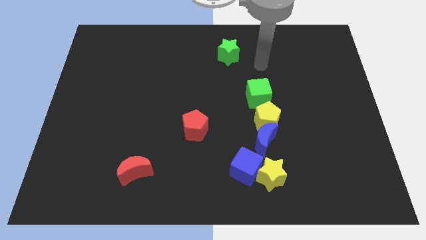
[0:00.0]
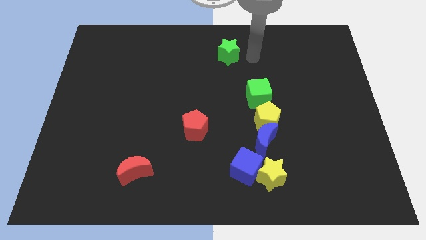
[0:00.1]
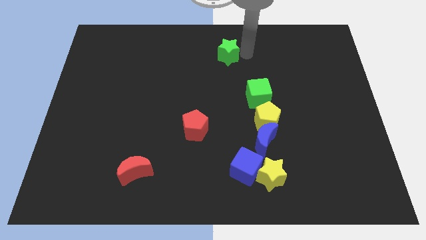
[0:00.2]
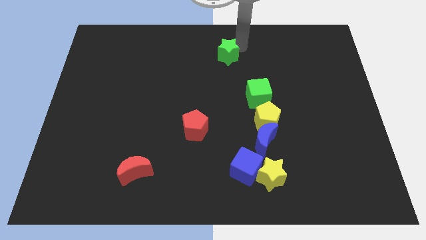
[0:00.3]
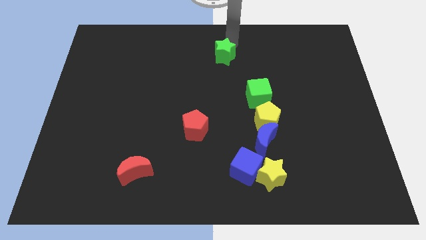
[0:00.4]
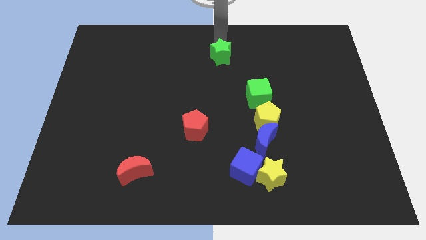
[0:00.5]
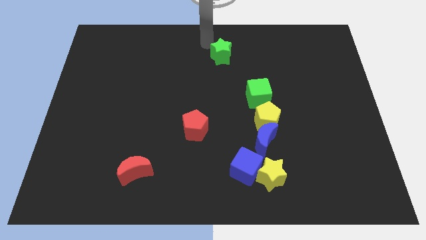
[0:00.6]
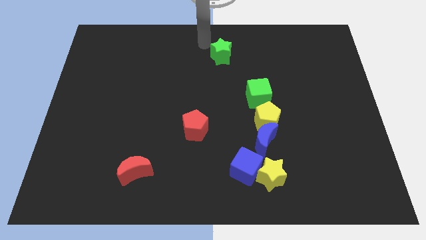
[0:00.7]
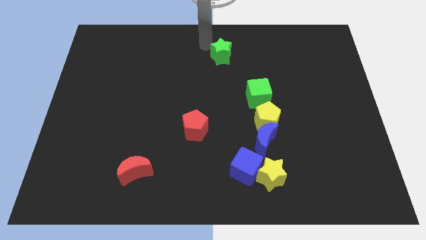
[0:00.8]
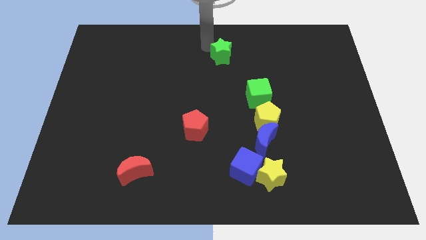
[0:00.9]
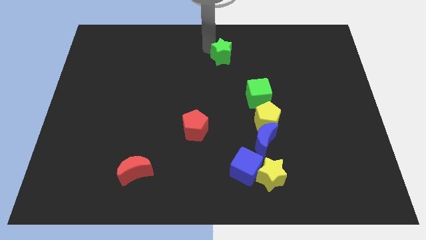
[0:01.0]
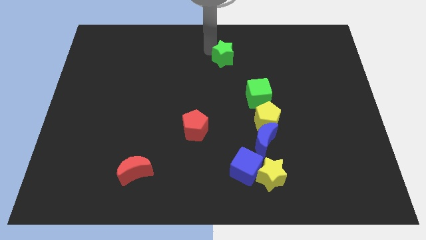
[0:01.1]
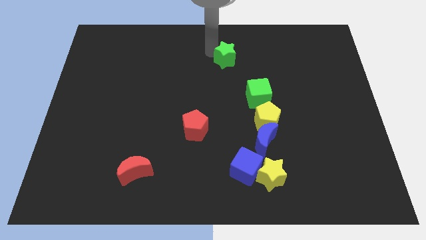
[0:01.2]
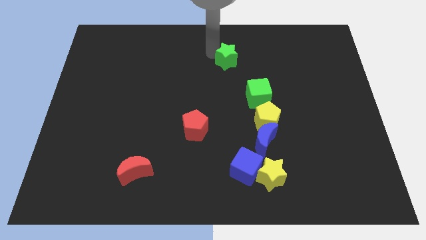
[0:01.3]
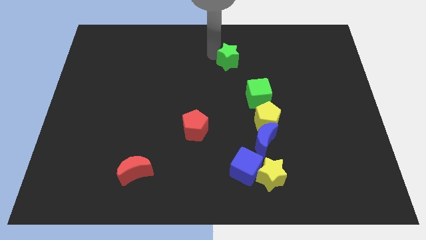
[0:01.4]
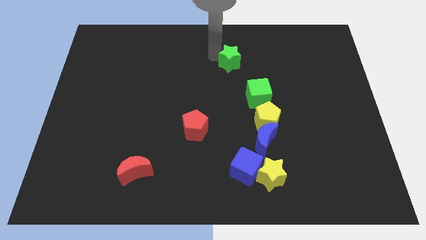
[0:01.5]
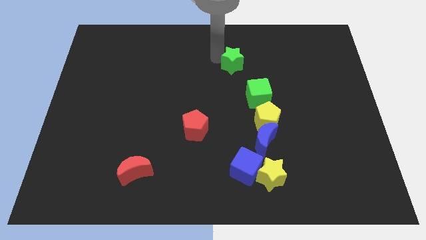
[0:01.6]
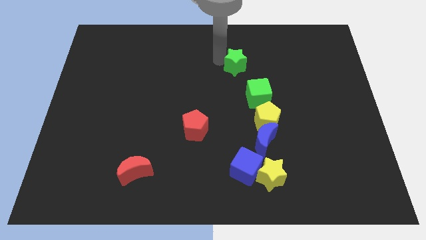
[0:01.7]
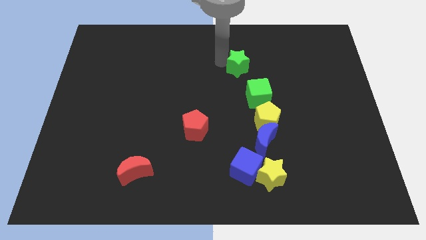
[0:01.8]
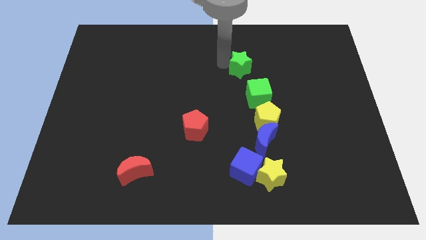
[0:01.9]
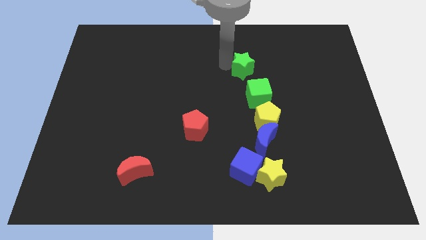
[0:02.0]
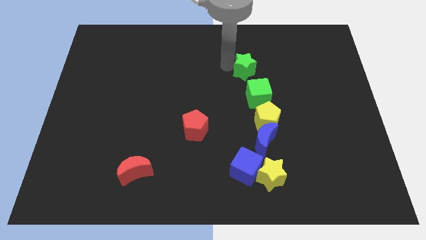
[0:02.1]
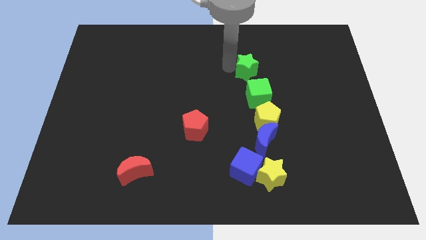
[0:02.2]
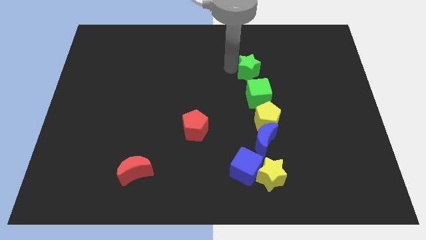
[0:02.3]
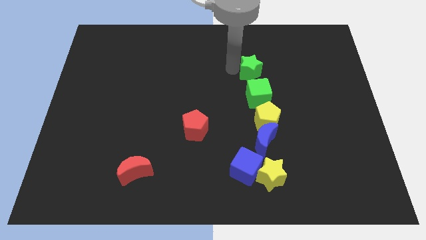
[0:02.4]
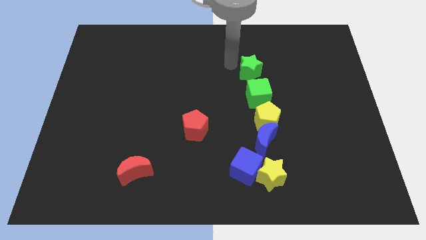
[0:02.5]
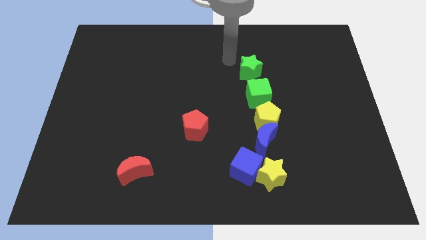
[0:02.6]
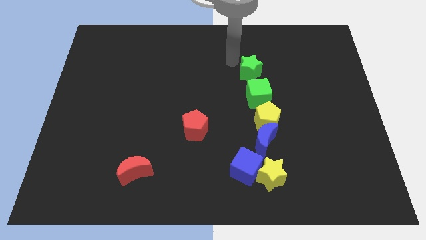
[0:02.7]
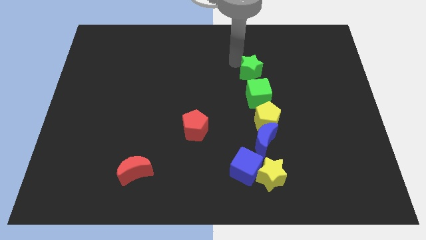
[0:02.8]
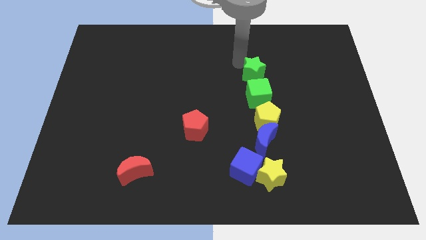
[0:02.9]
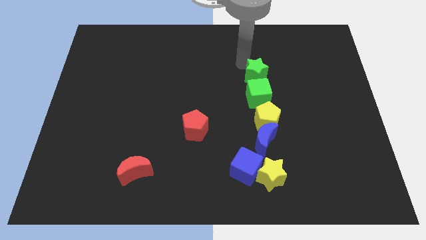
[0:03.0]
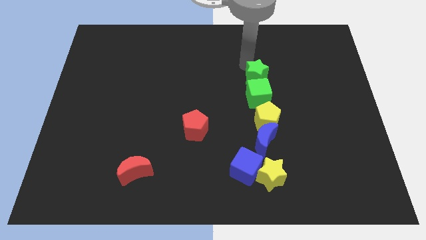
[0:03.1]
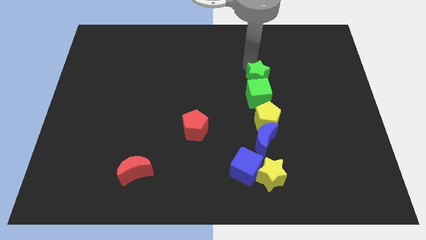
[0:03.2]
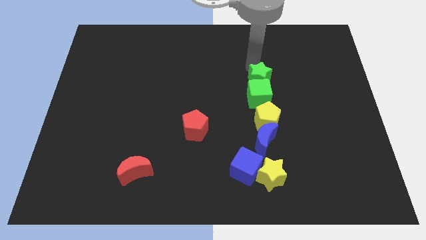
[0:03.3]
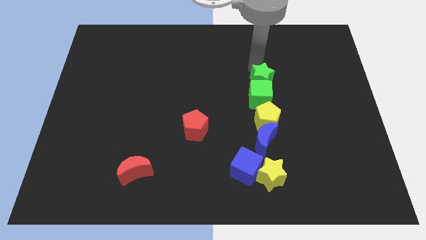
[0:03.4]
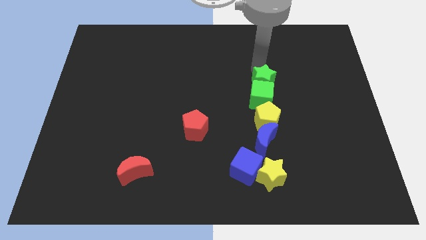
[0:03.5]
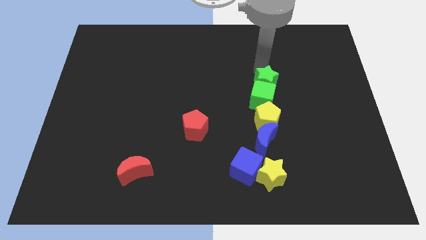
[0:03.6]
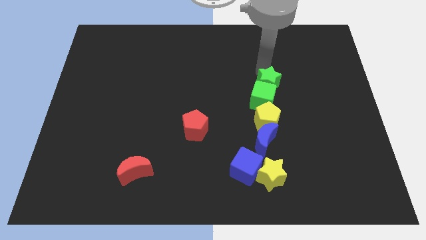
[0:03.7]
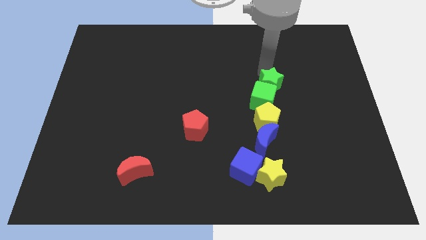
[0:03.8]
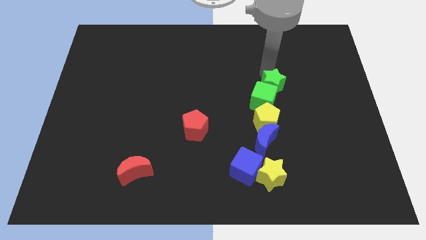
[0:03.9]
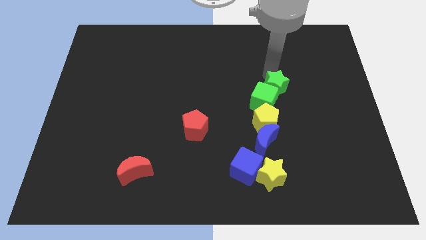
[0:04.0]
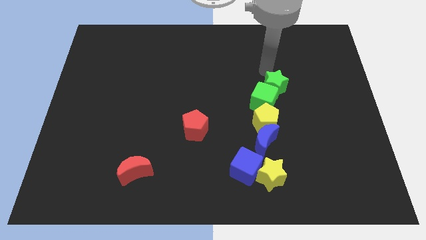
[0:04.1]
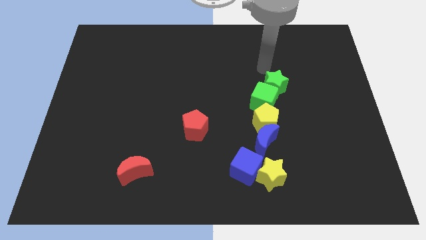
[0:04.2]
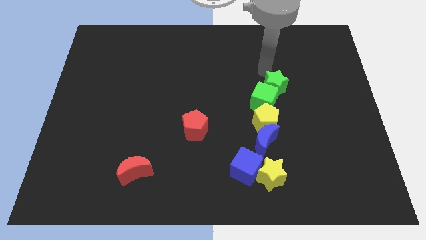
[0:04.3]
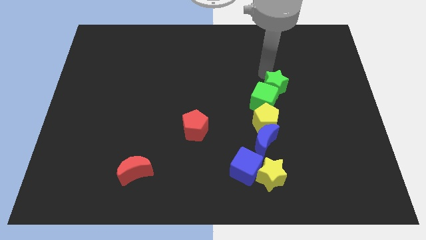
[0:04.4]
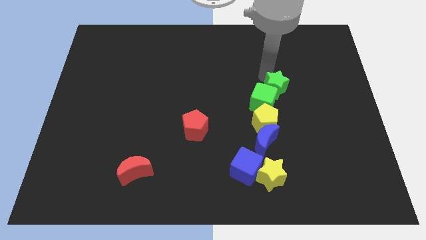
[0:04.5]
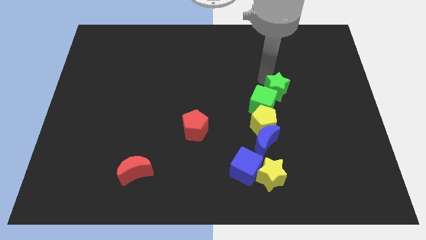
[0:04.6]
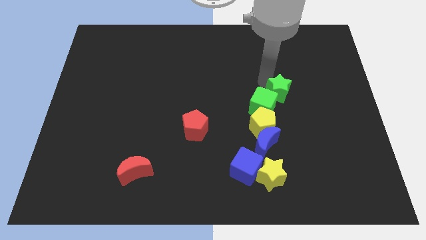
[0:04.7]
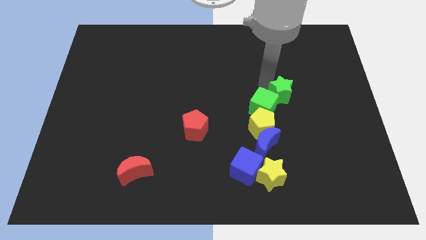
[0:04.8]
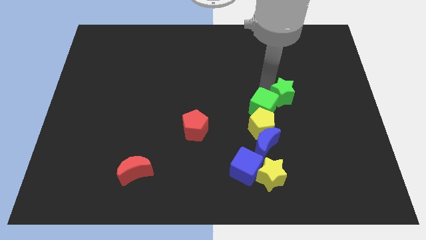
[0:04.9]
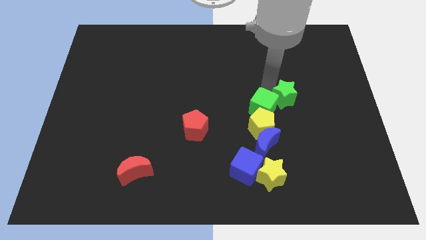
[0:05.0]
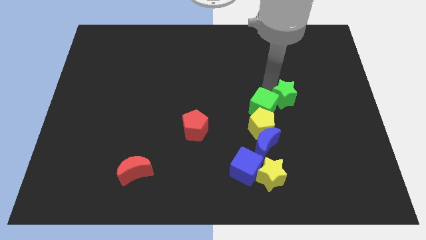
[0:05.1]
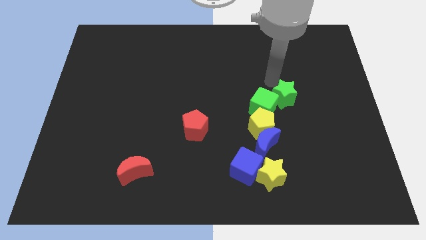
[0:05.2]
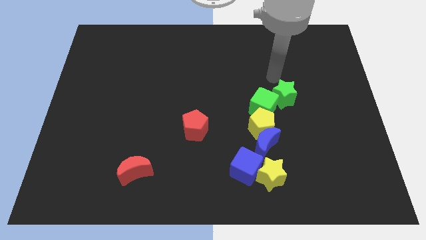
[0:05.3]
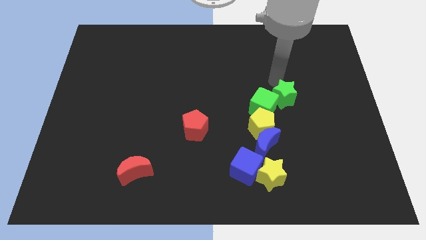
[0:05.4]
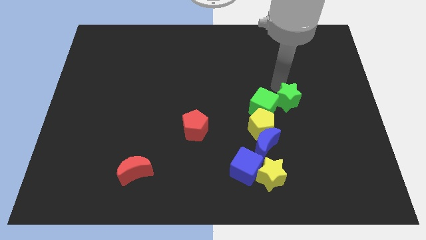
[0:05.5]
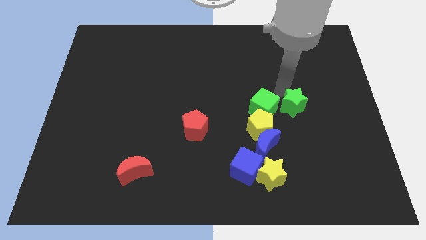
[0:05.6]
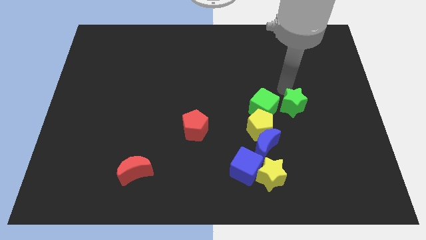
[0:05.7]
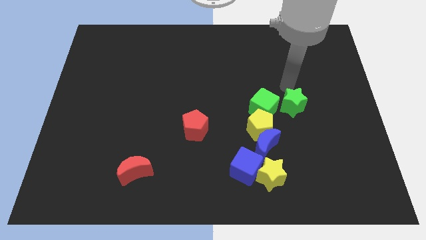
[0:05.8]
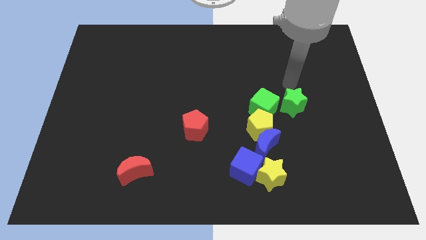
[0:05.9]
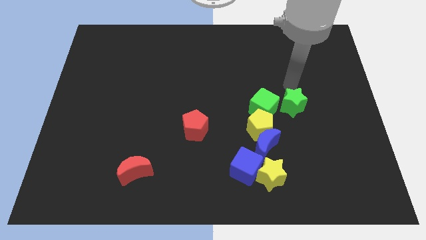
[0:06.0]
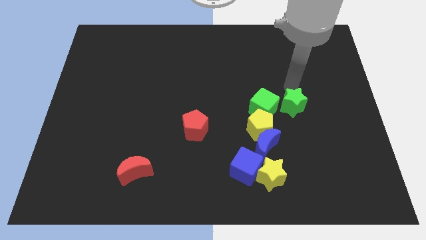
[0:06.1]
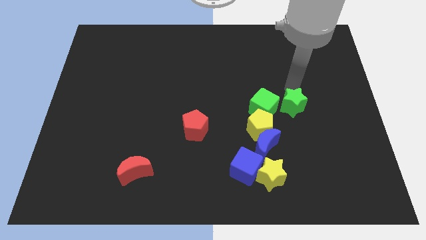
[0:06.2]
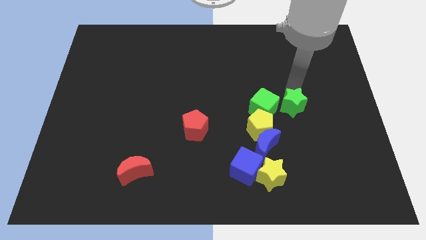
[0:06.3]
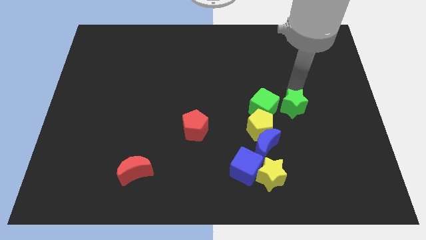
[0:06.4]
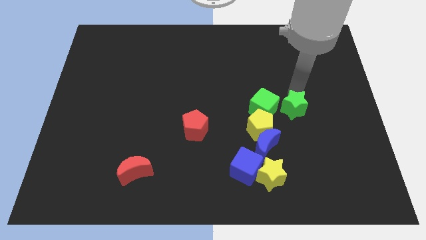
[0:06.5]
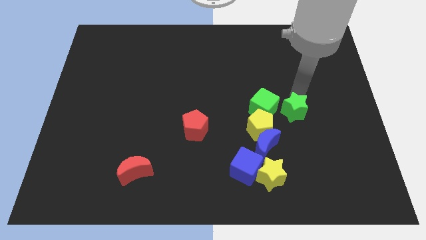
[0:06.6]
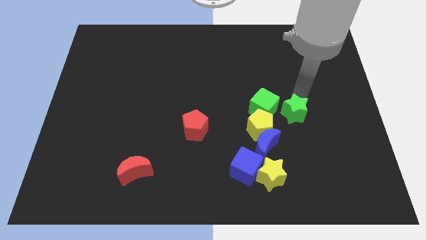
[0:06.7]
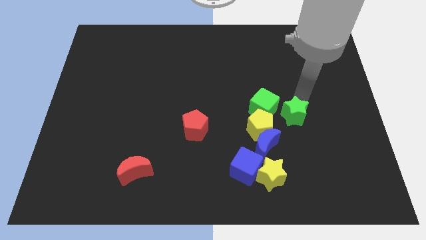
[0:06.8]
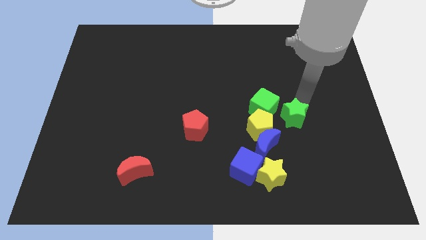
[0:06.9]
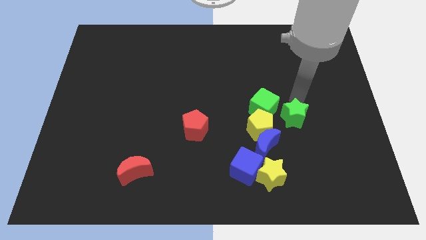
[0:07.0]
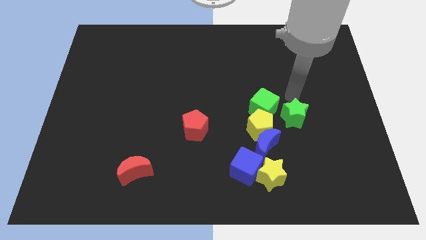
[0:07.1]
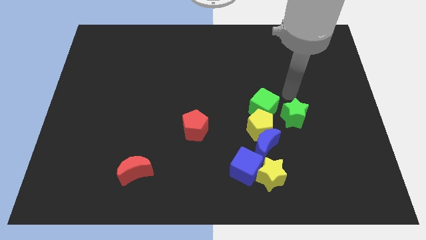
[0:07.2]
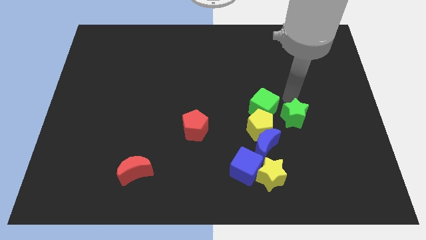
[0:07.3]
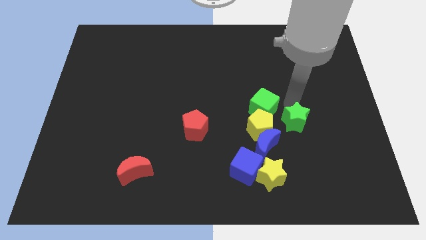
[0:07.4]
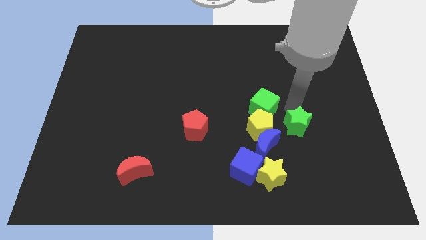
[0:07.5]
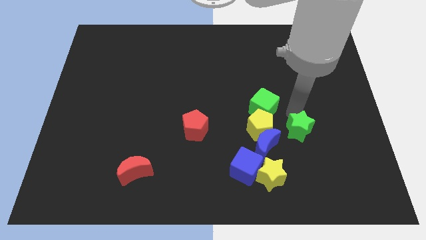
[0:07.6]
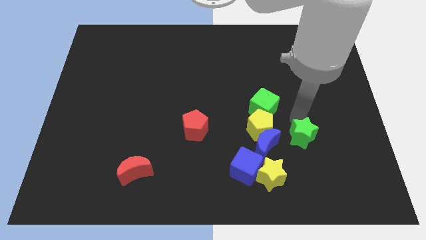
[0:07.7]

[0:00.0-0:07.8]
move the green star to the top right of the yellow star
